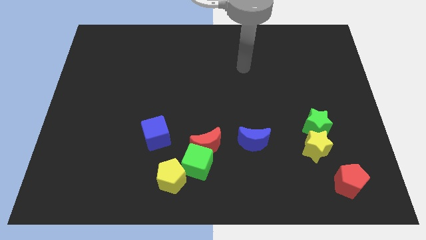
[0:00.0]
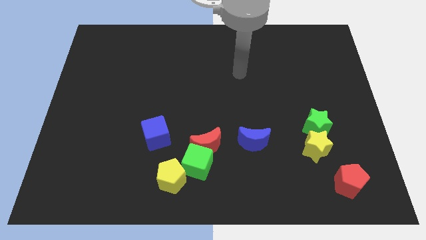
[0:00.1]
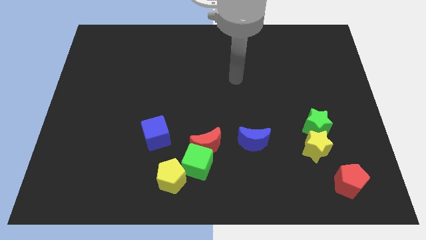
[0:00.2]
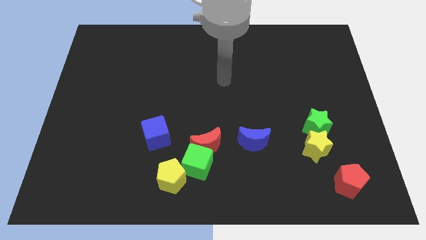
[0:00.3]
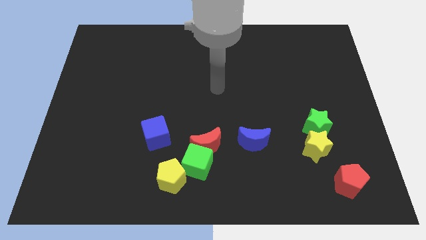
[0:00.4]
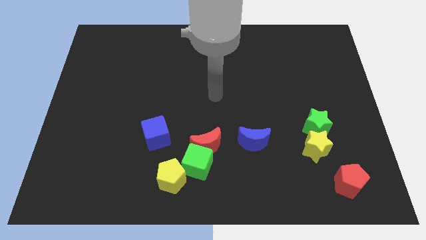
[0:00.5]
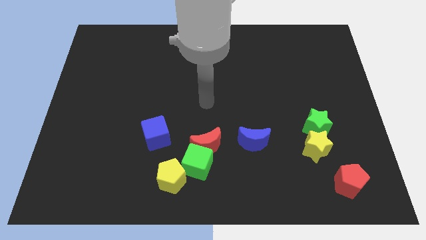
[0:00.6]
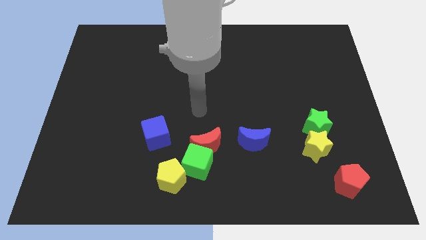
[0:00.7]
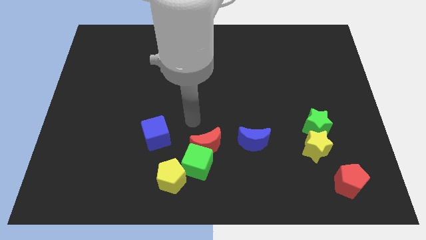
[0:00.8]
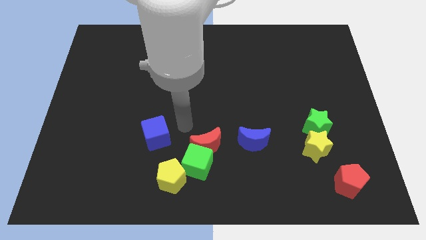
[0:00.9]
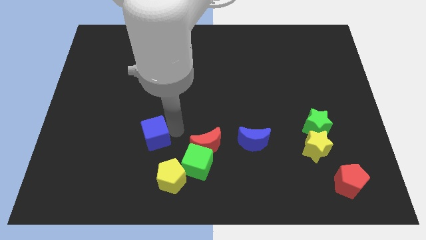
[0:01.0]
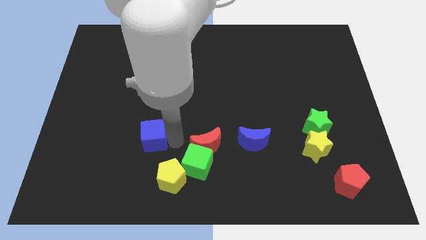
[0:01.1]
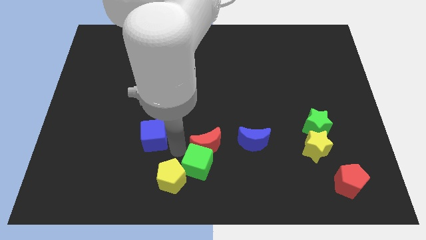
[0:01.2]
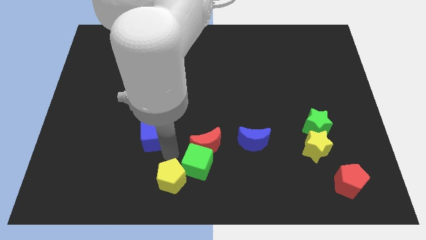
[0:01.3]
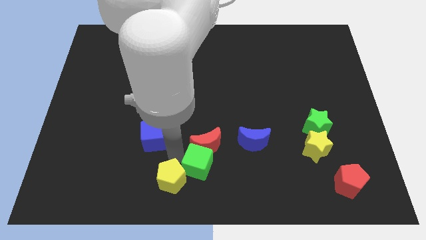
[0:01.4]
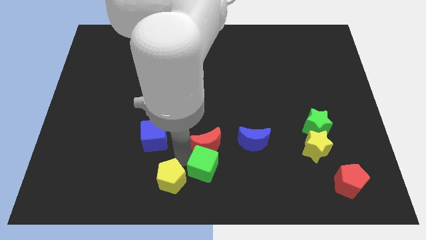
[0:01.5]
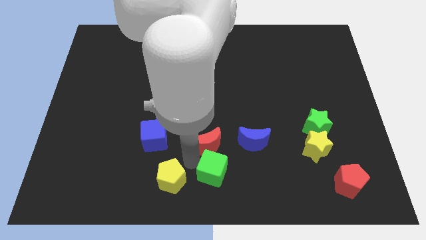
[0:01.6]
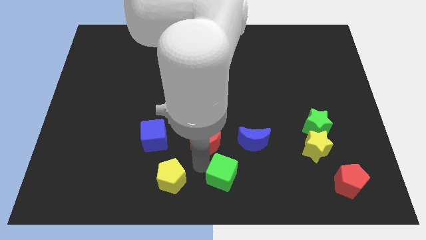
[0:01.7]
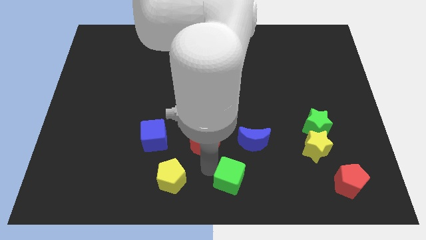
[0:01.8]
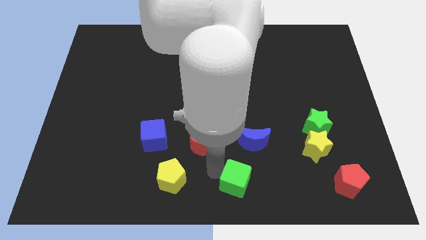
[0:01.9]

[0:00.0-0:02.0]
move the green cube away from the red moon and yellow pentagon

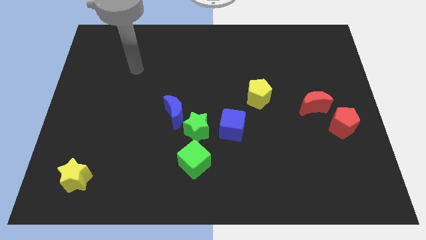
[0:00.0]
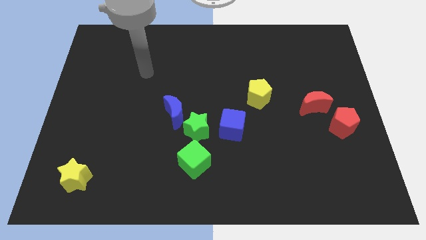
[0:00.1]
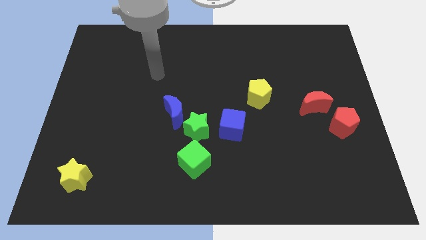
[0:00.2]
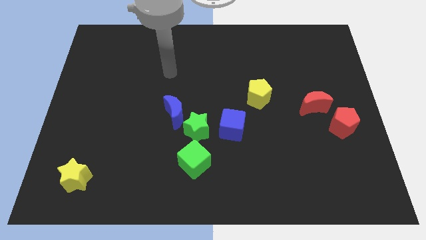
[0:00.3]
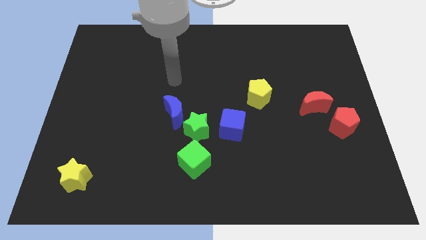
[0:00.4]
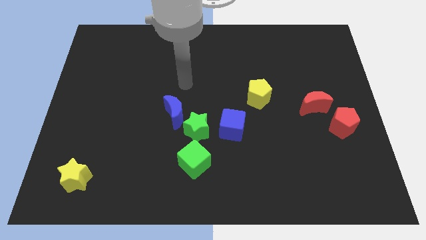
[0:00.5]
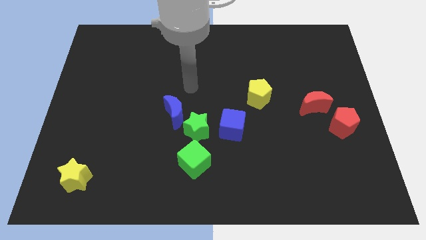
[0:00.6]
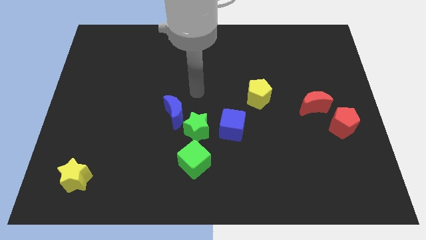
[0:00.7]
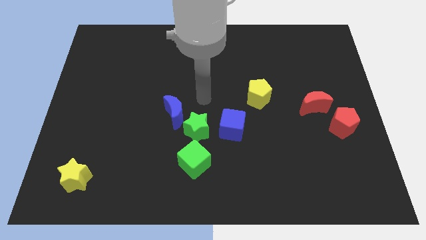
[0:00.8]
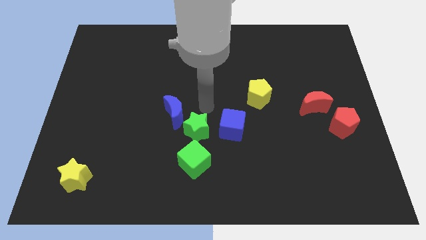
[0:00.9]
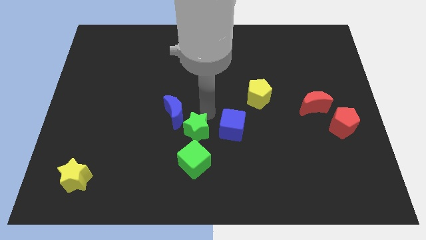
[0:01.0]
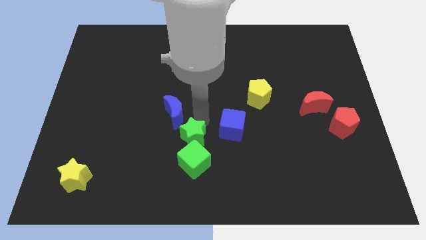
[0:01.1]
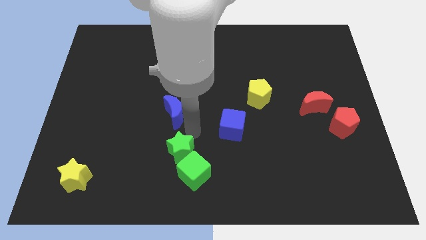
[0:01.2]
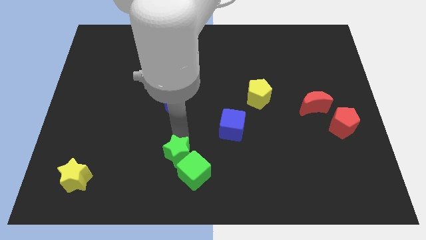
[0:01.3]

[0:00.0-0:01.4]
move the blue moon away from the green star

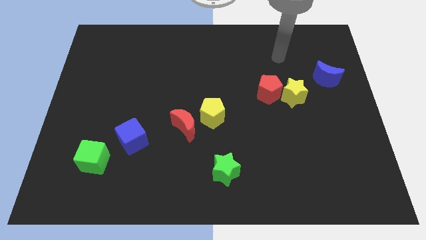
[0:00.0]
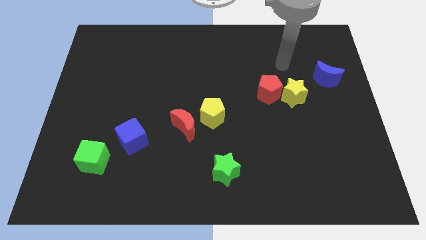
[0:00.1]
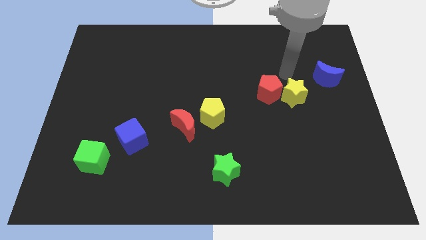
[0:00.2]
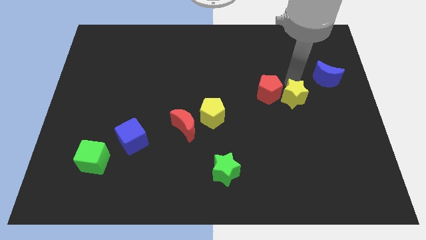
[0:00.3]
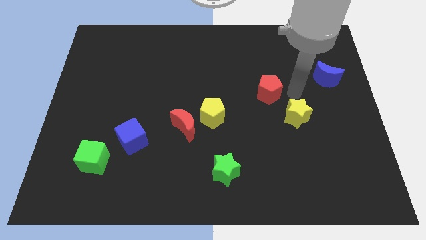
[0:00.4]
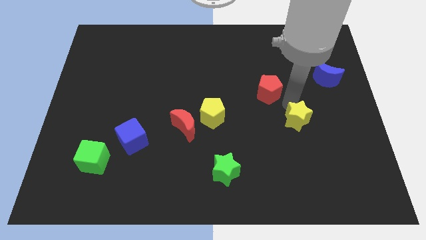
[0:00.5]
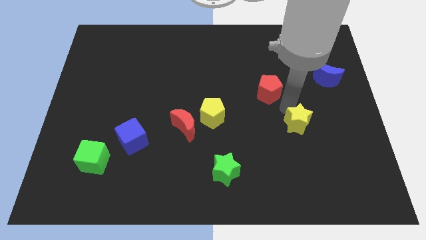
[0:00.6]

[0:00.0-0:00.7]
separate the red pentagon from the yellow star

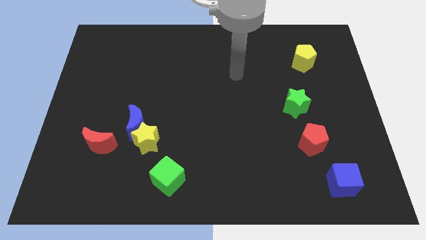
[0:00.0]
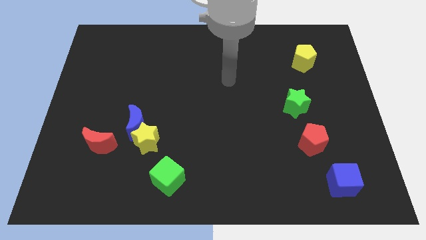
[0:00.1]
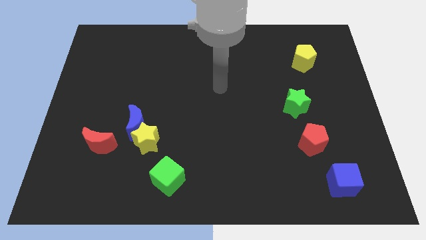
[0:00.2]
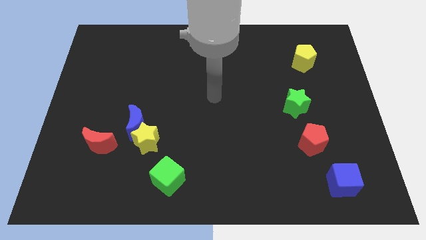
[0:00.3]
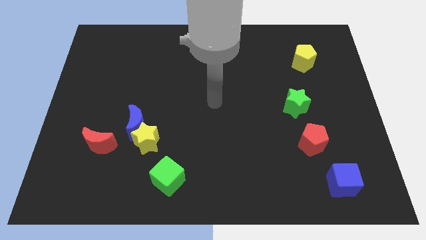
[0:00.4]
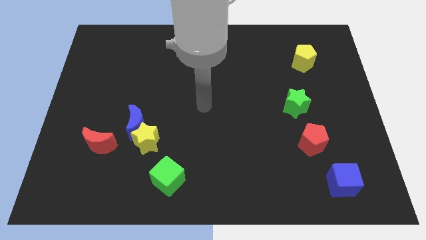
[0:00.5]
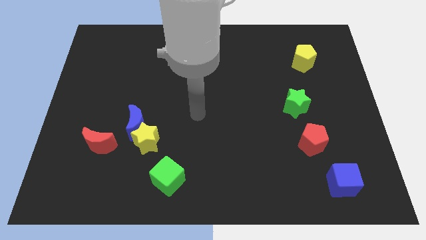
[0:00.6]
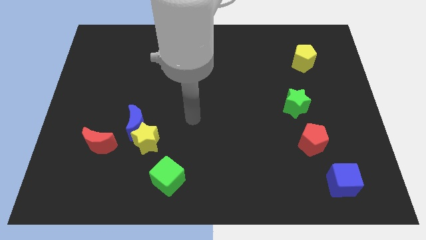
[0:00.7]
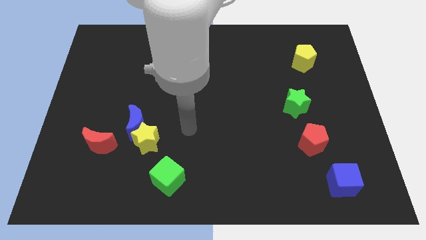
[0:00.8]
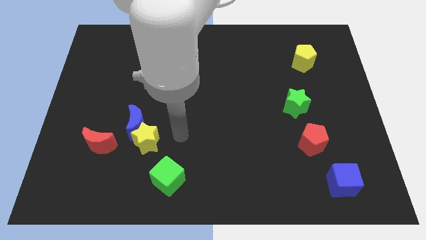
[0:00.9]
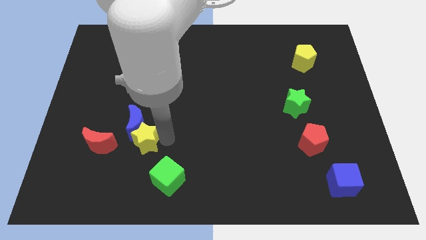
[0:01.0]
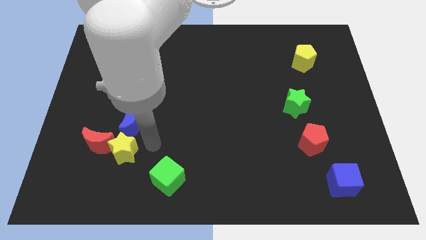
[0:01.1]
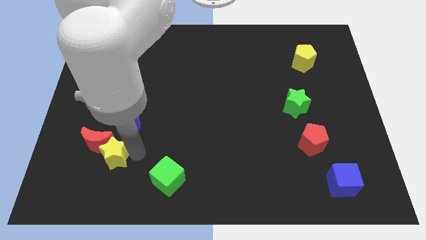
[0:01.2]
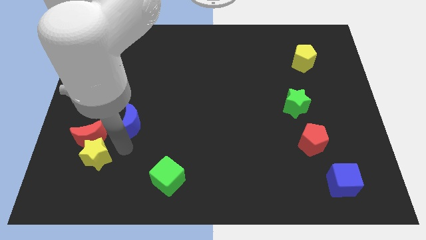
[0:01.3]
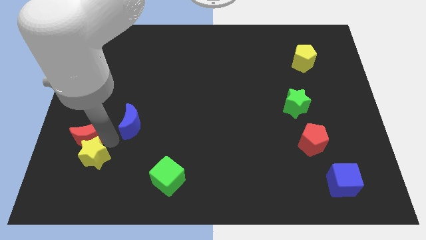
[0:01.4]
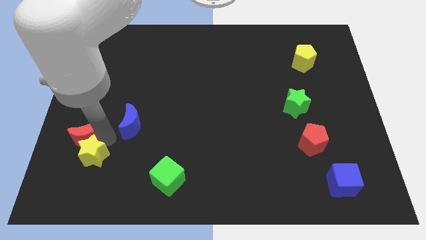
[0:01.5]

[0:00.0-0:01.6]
pull the blue moon apart from the yellow star and red moon

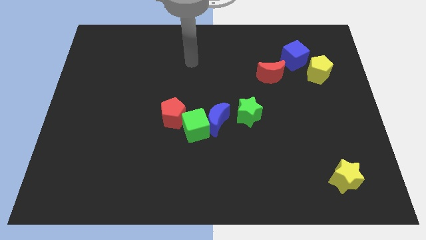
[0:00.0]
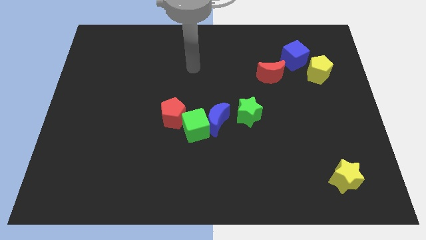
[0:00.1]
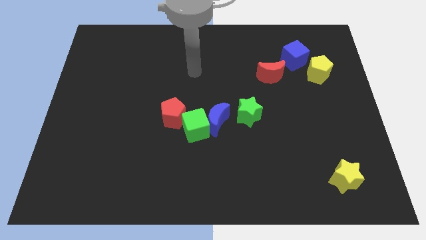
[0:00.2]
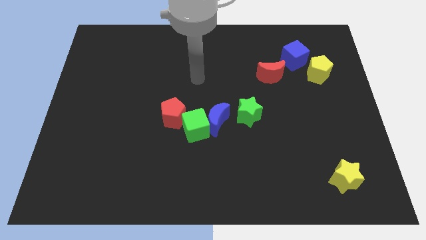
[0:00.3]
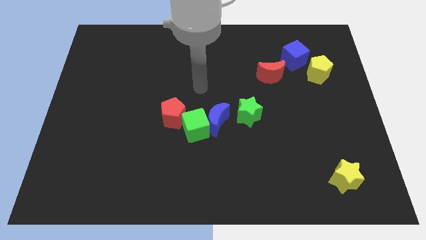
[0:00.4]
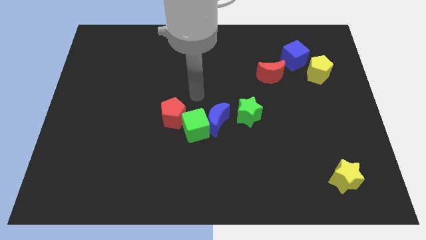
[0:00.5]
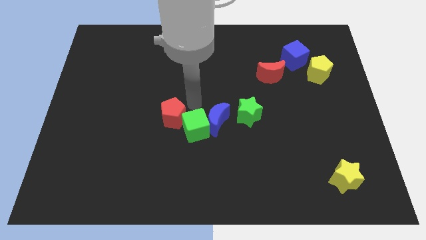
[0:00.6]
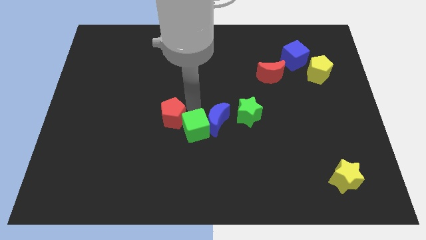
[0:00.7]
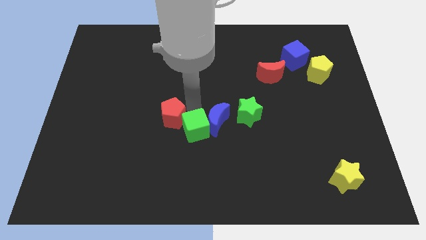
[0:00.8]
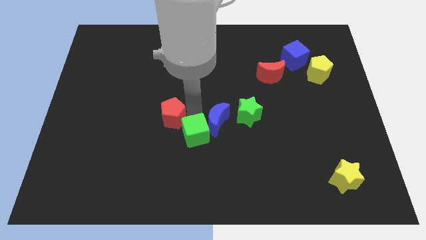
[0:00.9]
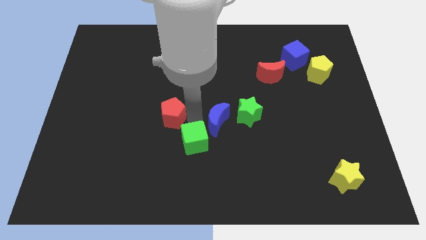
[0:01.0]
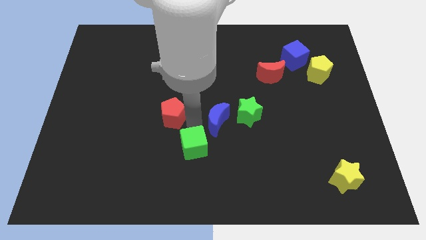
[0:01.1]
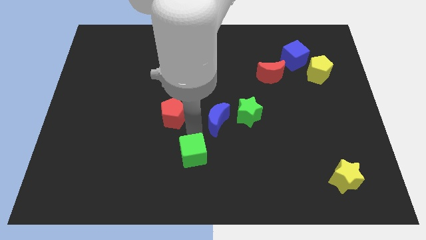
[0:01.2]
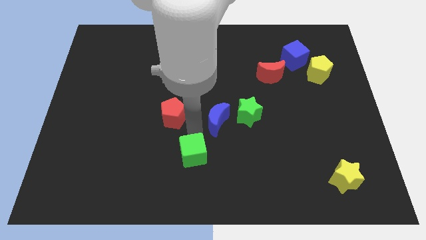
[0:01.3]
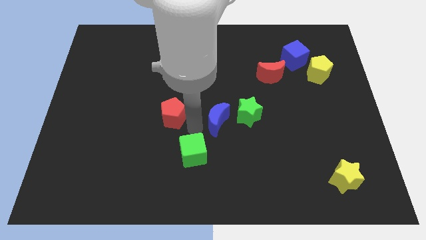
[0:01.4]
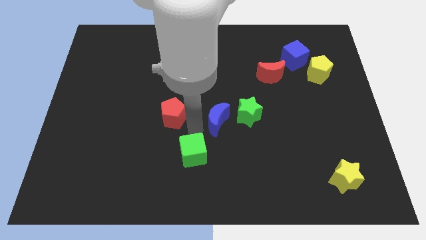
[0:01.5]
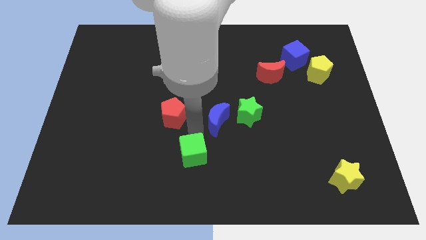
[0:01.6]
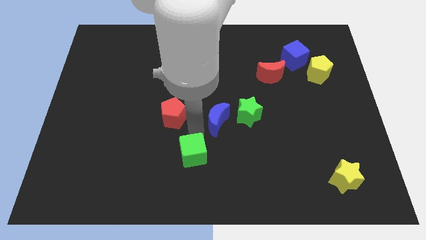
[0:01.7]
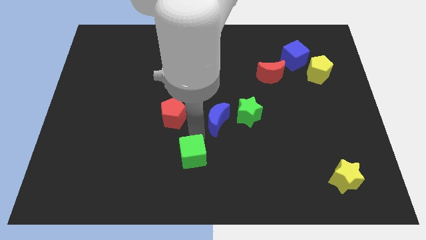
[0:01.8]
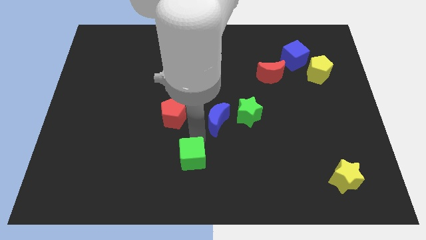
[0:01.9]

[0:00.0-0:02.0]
pull the green cube apart from the blue moon and red pentagon

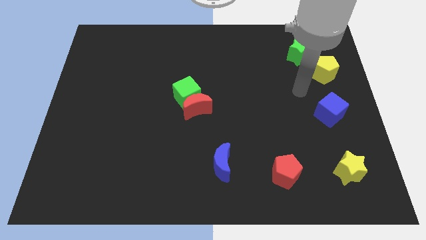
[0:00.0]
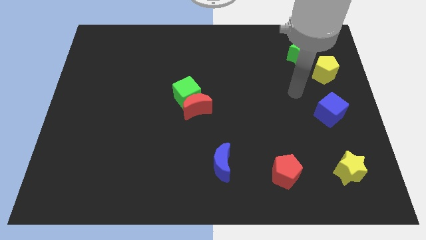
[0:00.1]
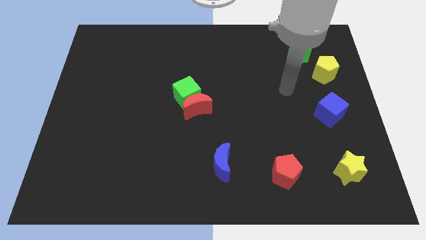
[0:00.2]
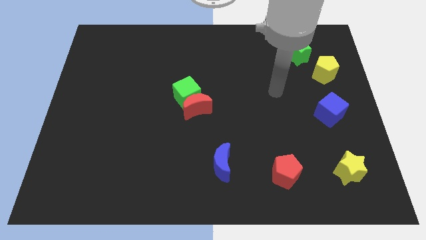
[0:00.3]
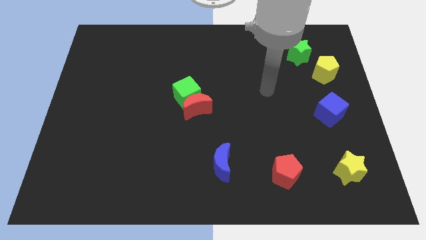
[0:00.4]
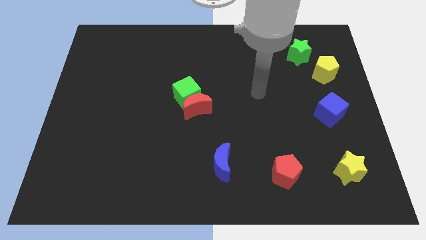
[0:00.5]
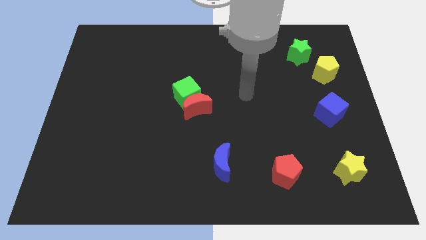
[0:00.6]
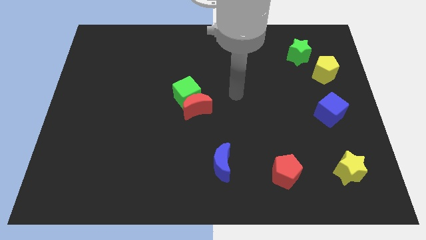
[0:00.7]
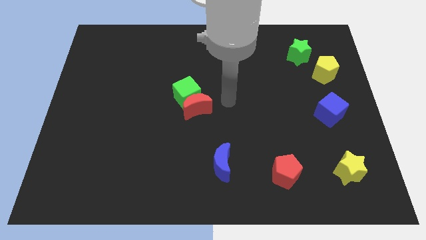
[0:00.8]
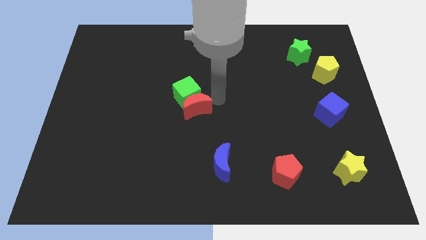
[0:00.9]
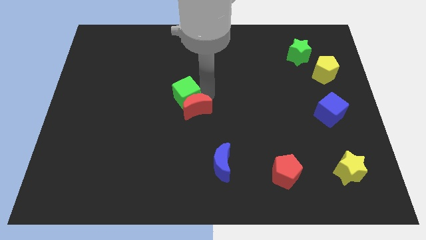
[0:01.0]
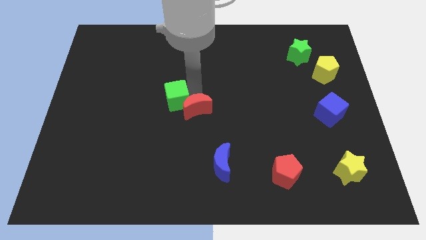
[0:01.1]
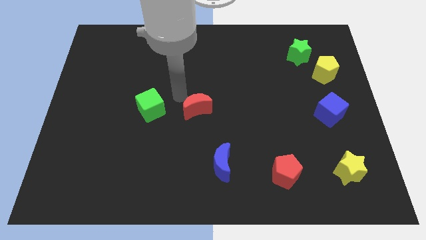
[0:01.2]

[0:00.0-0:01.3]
pull the red moon apart from the green cube

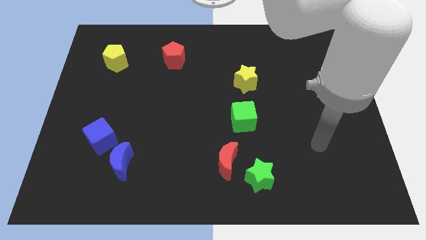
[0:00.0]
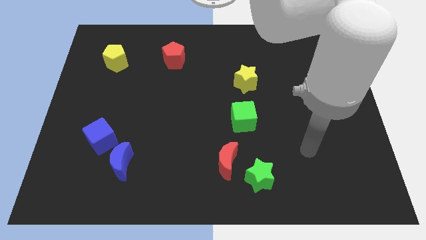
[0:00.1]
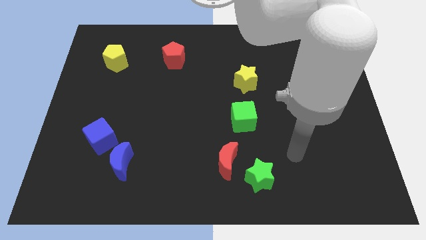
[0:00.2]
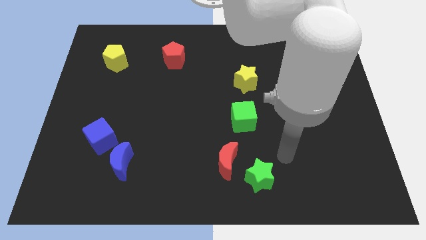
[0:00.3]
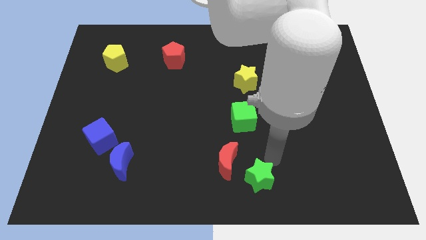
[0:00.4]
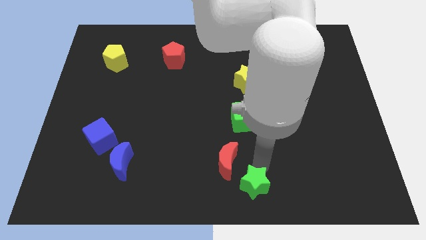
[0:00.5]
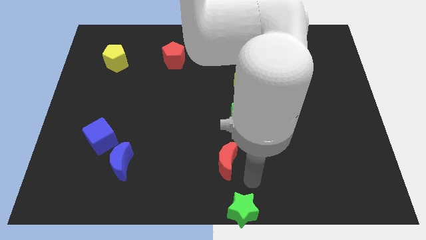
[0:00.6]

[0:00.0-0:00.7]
separate the red moon from the green star
